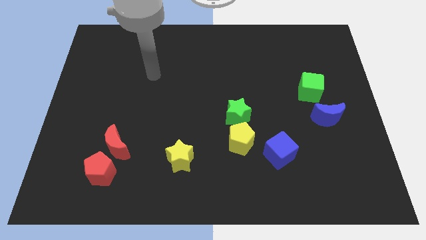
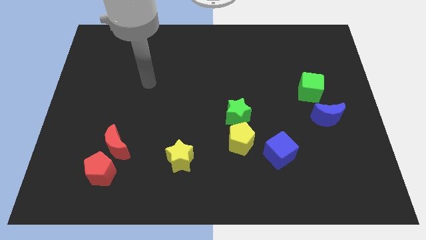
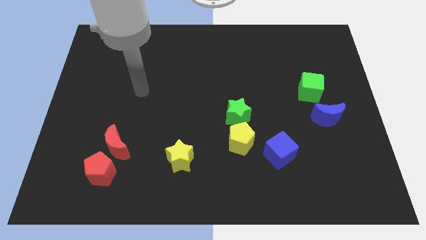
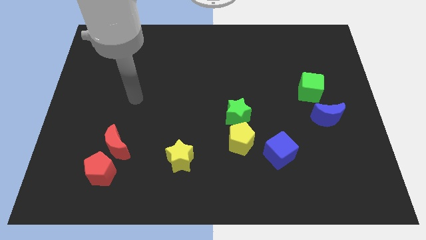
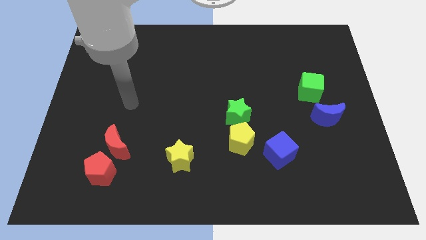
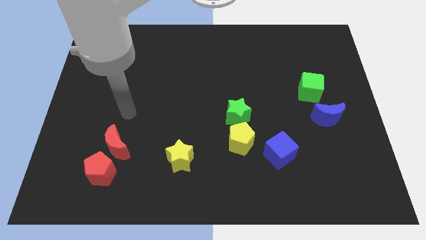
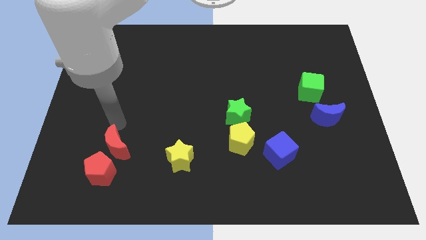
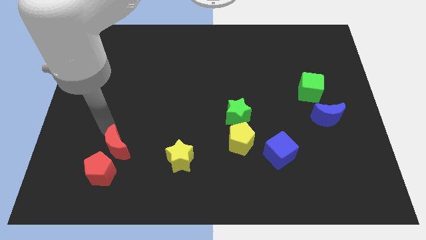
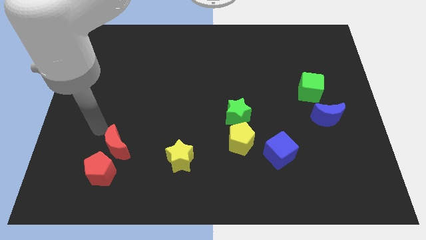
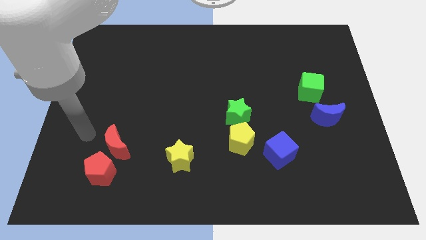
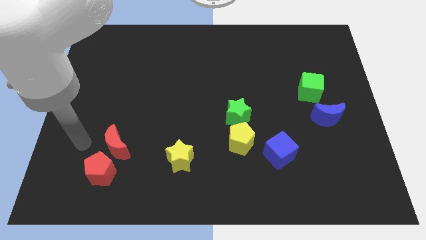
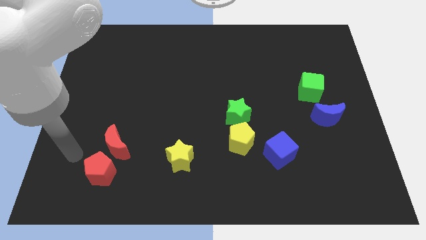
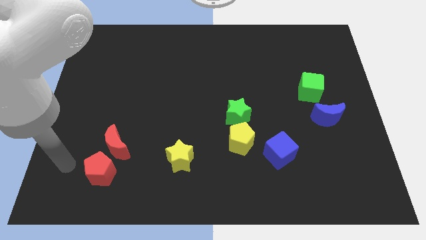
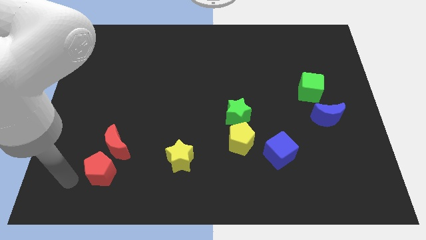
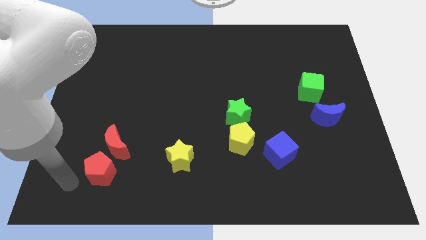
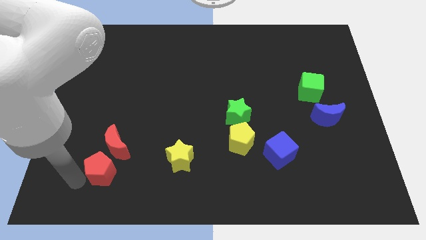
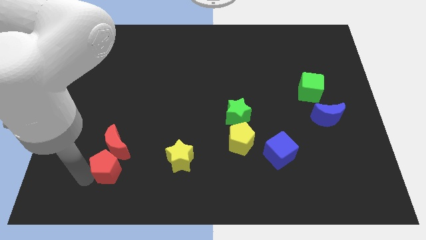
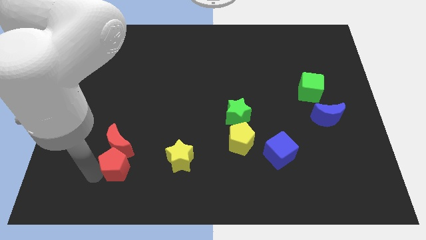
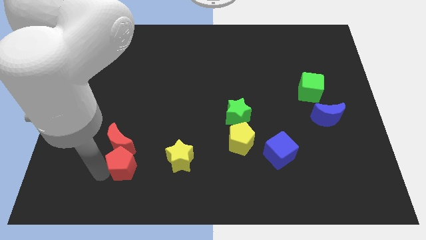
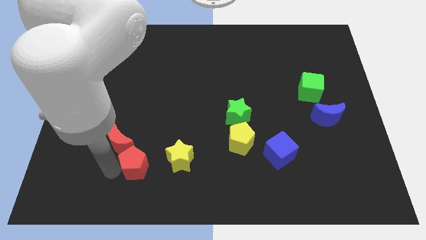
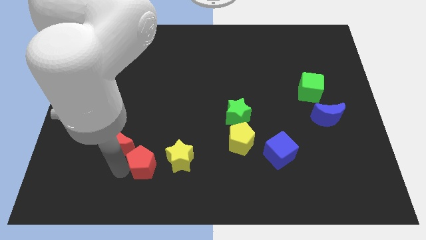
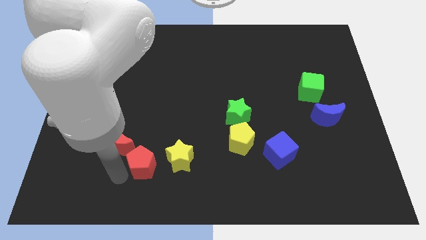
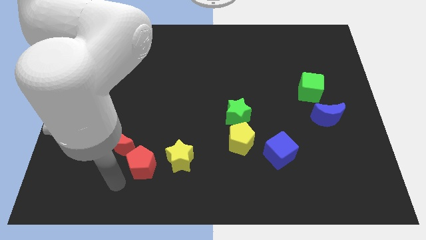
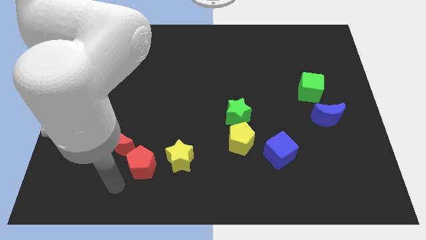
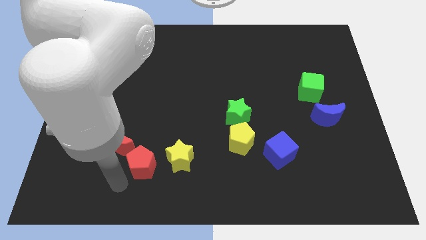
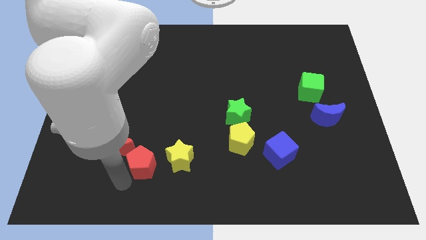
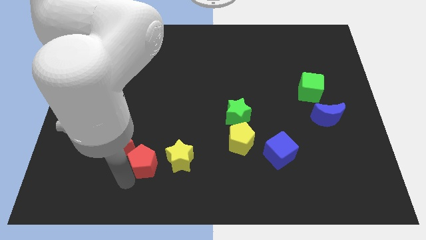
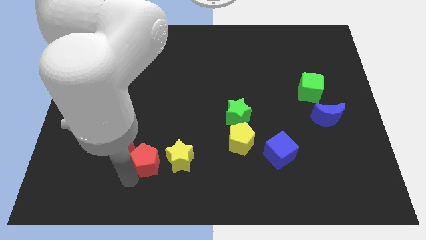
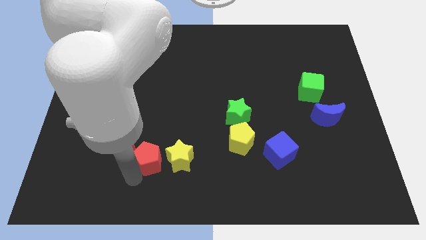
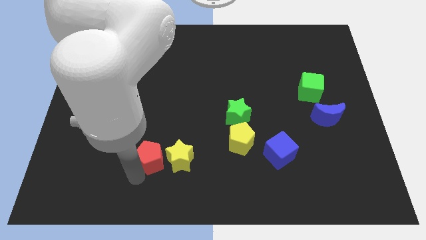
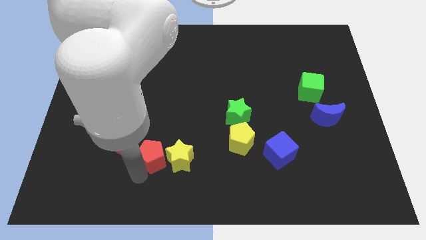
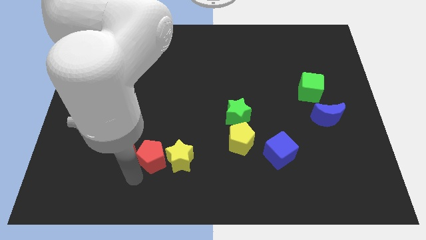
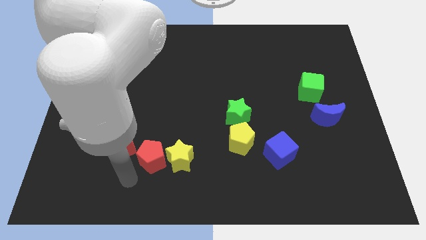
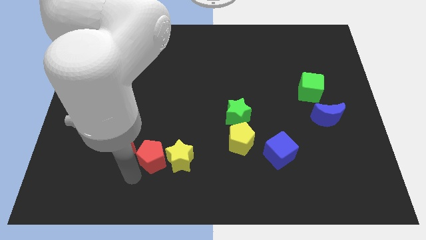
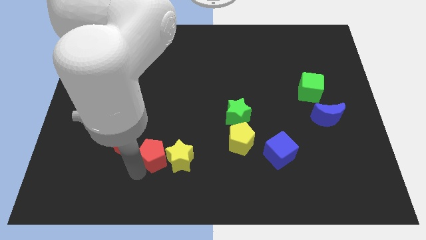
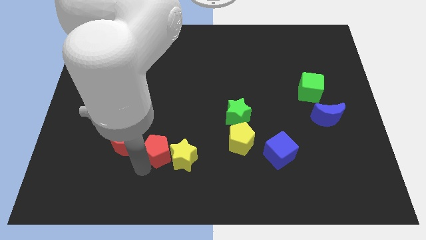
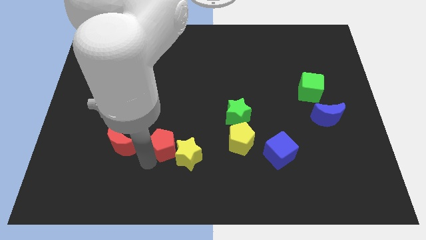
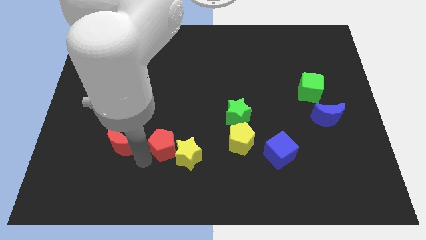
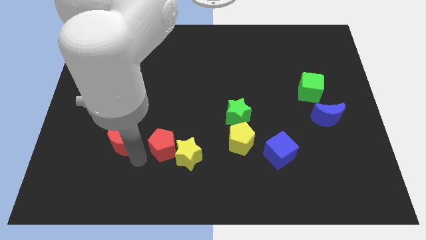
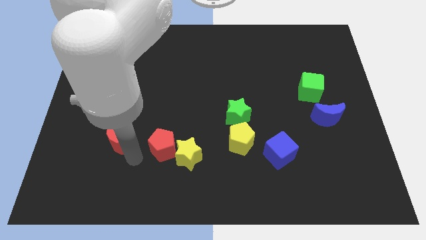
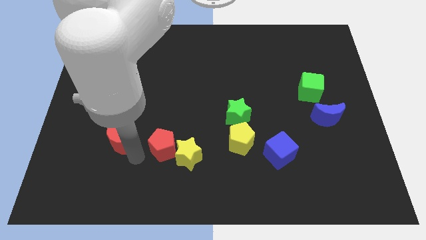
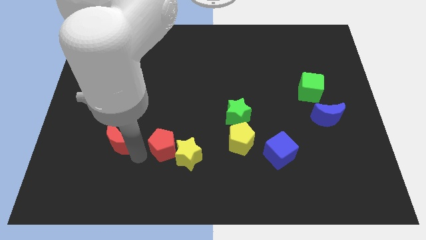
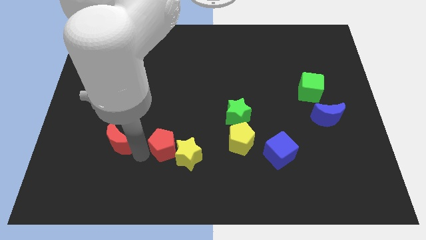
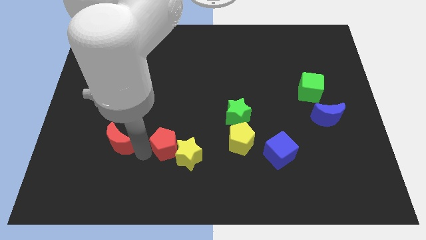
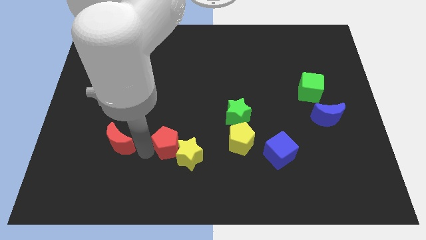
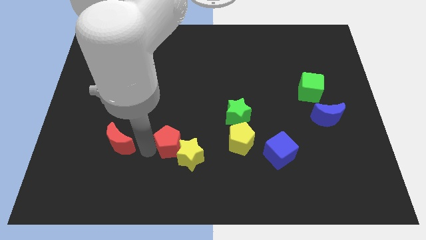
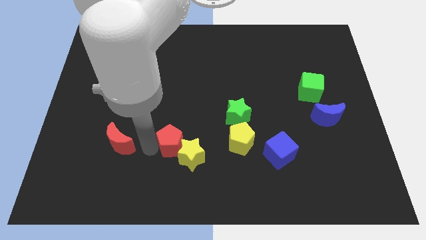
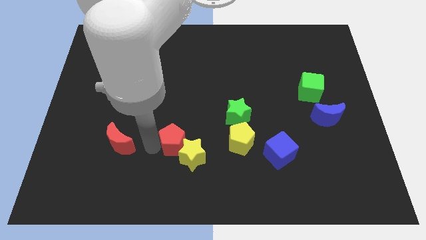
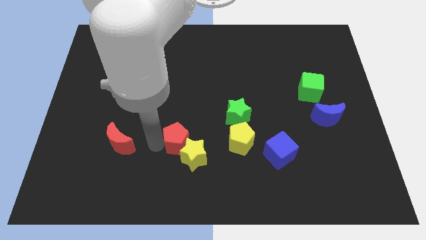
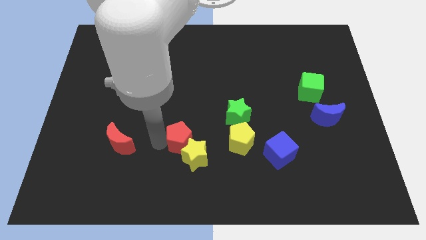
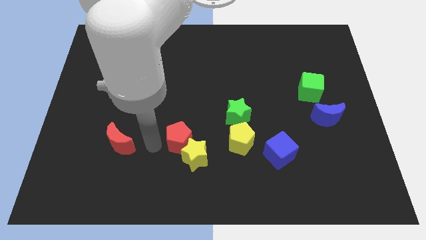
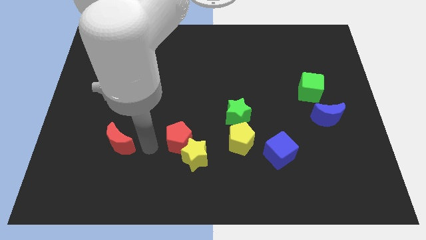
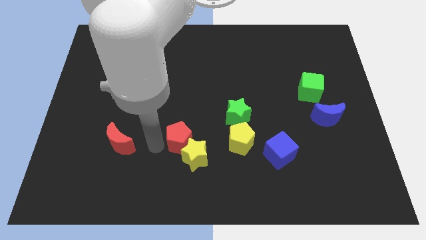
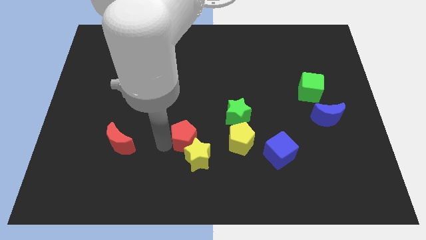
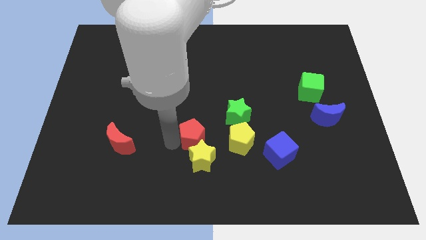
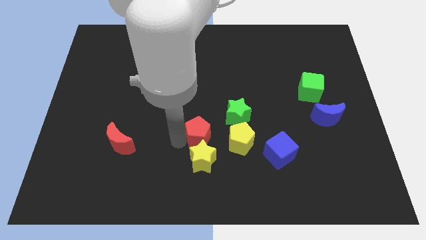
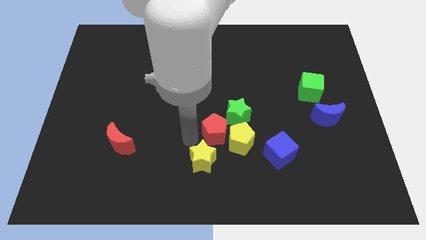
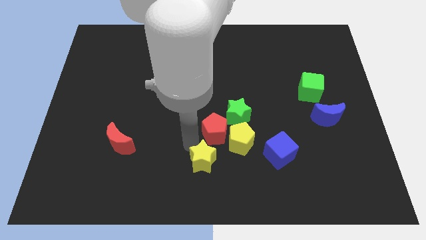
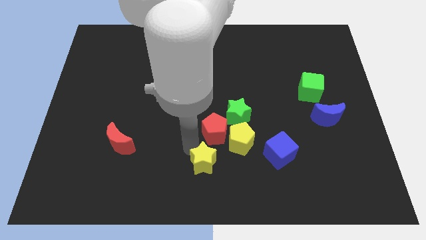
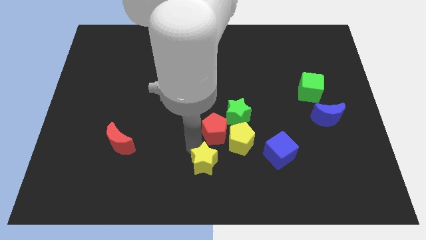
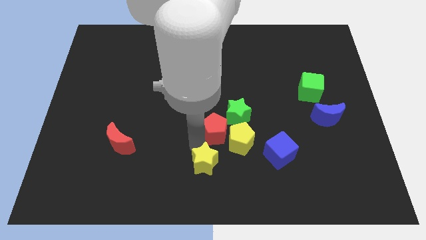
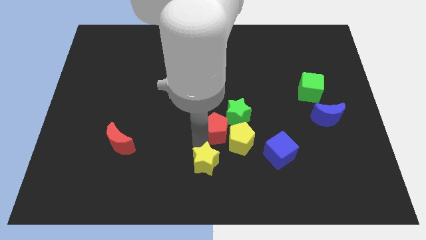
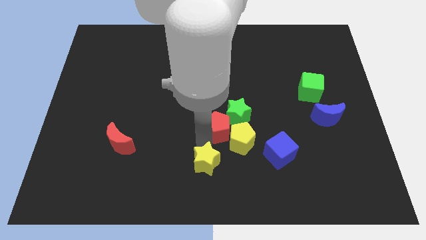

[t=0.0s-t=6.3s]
move the red pentagon close to the green star

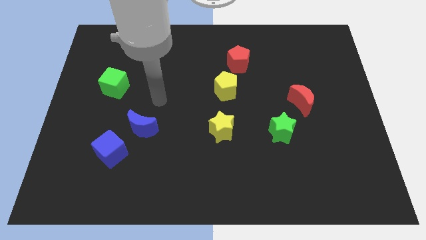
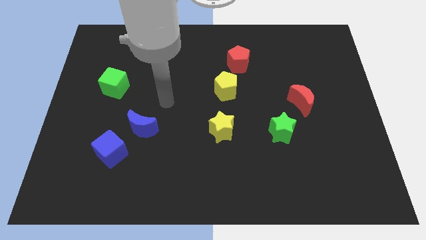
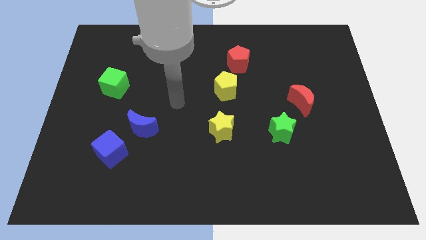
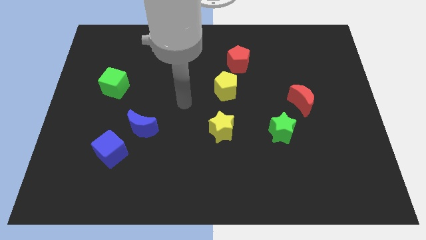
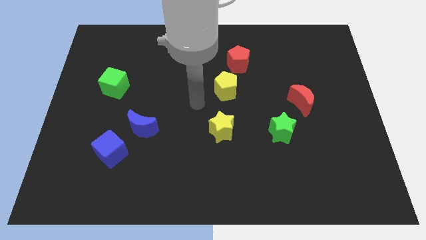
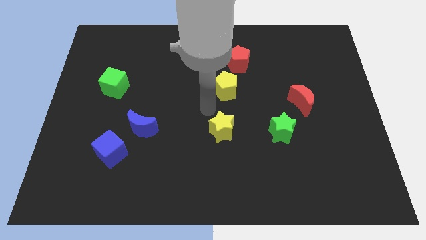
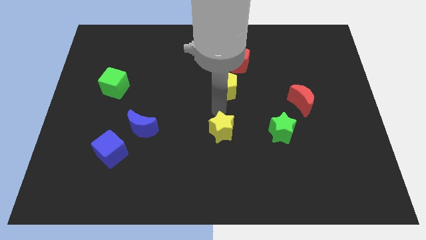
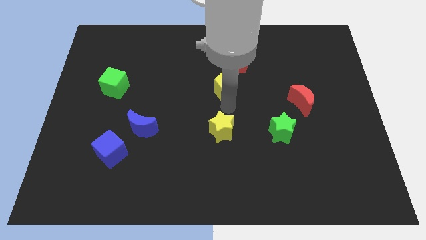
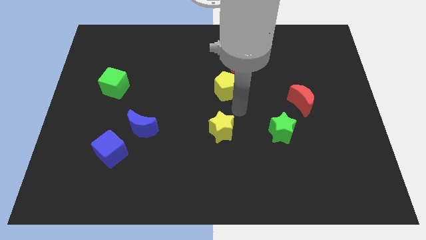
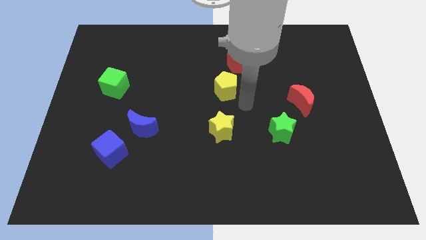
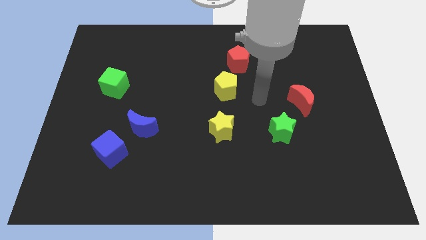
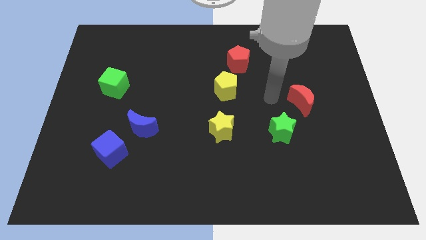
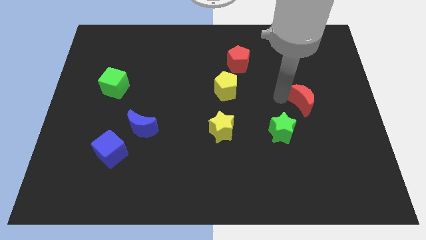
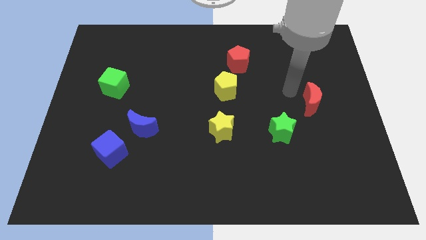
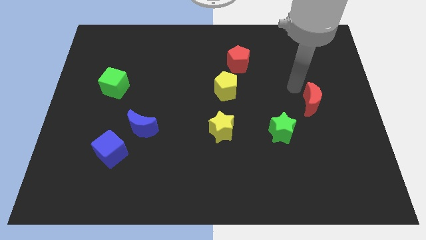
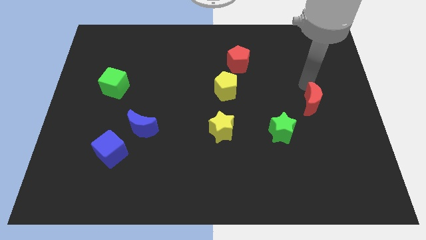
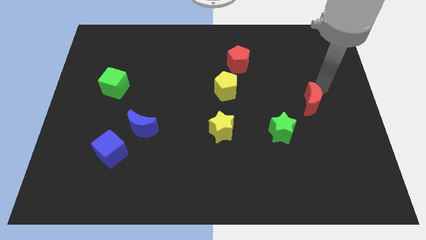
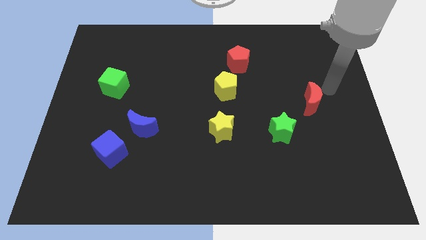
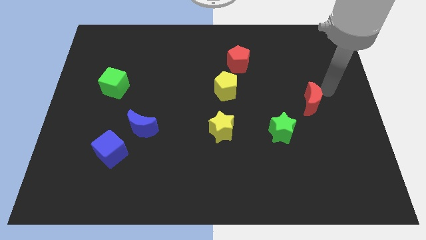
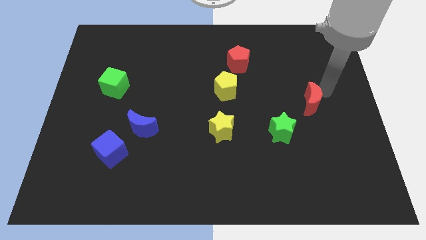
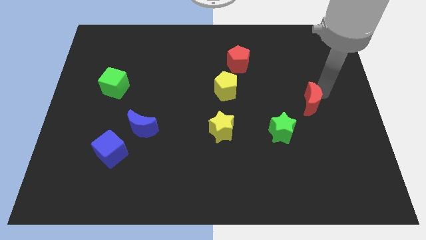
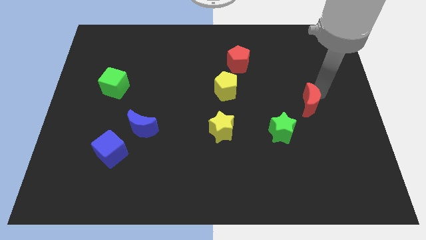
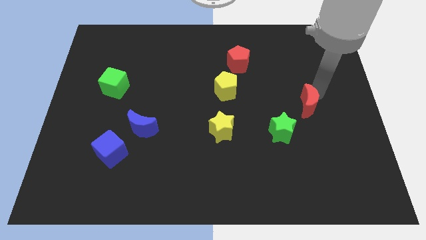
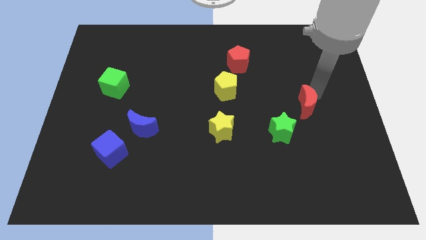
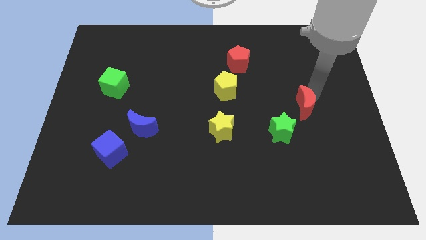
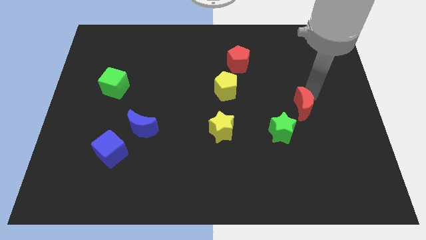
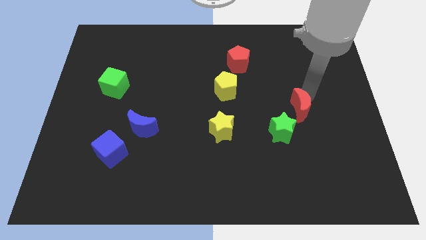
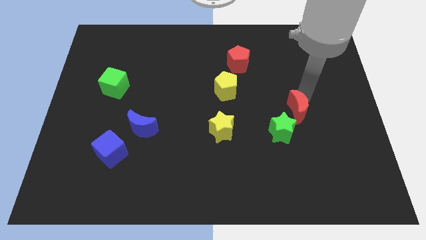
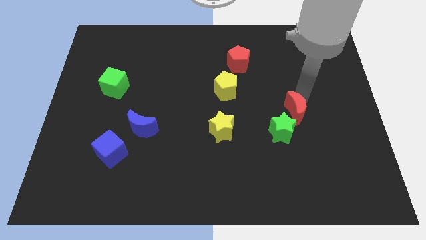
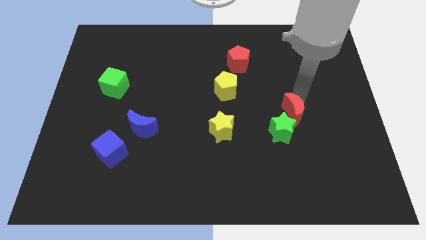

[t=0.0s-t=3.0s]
put the red moon towards the green star
